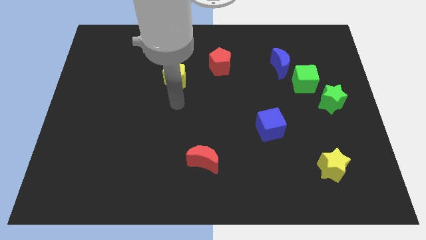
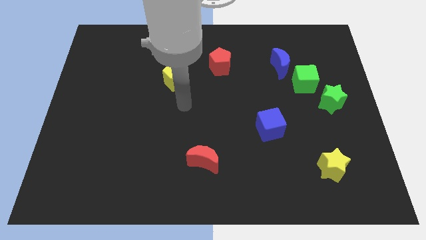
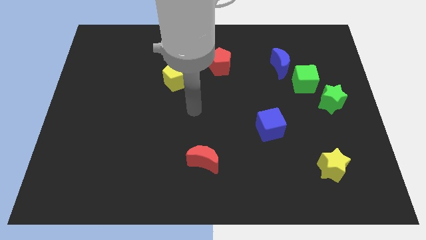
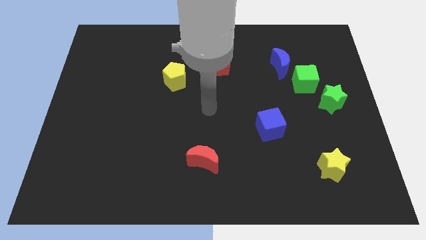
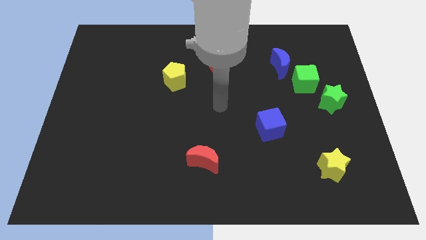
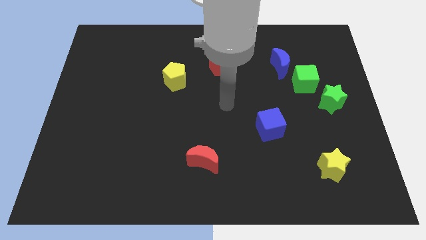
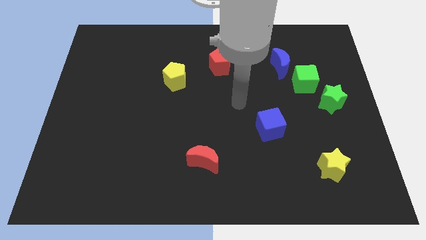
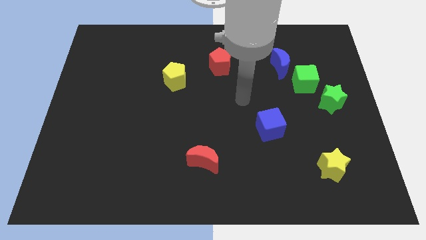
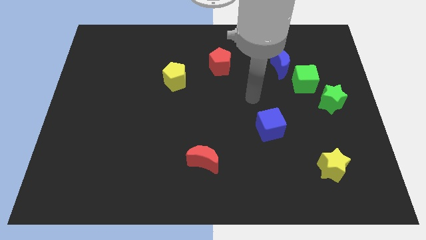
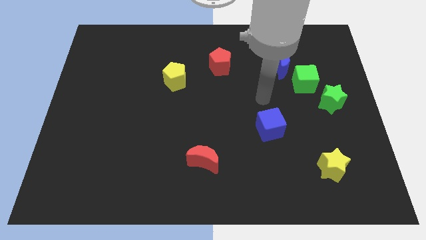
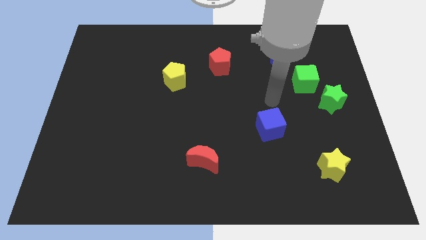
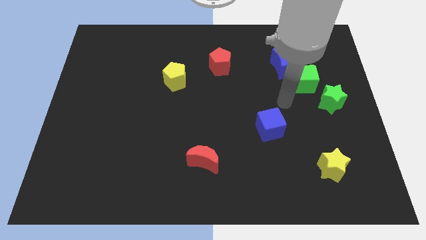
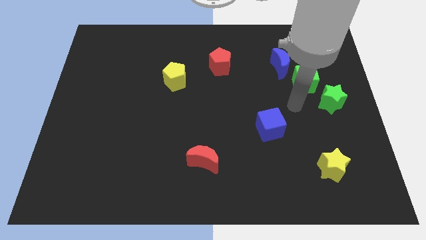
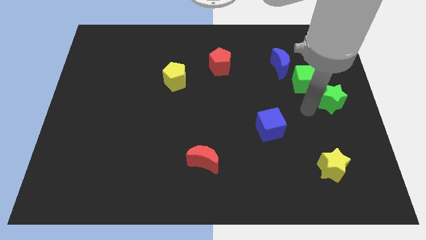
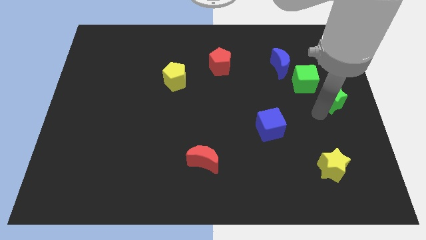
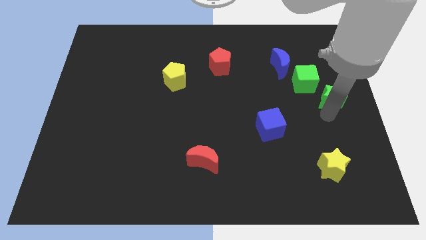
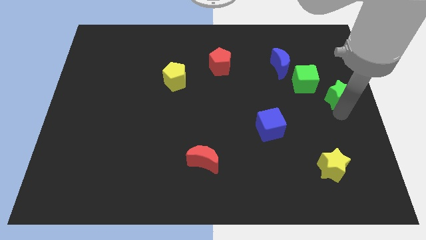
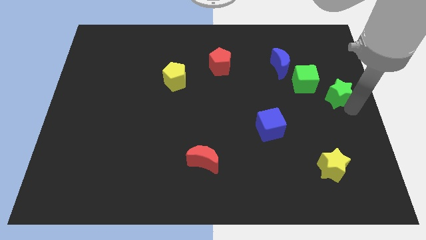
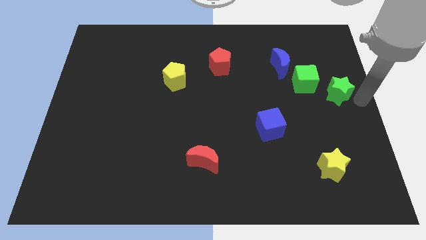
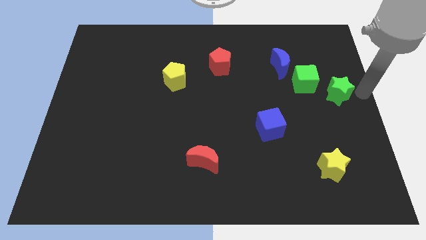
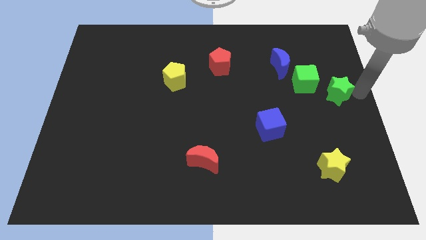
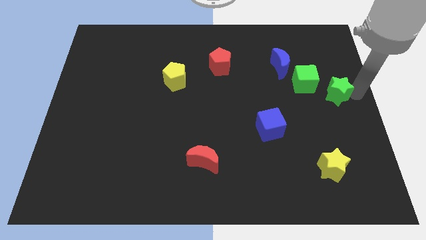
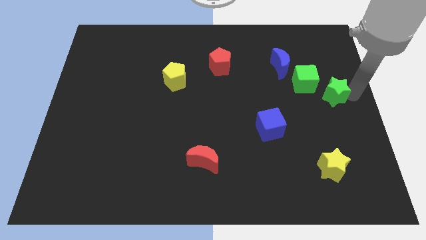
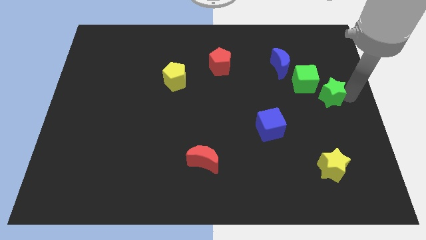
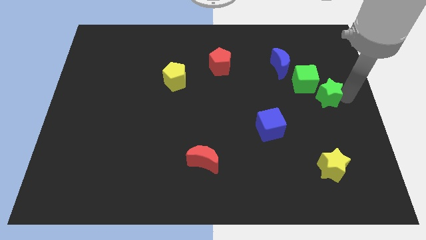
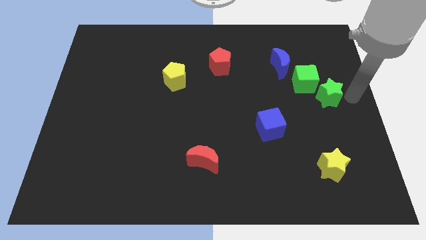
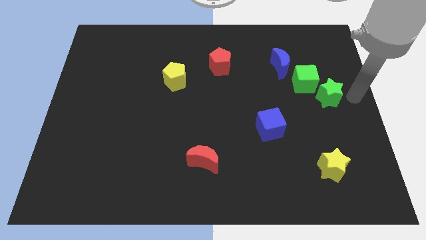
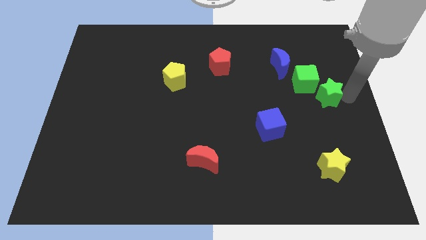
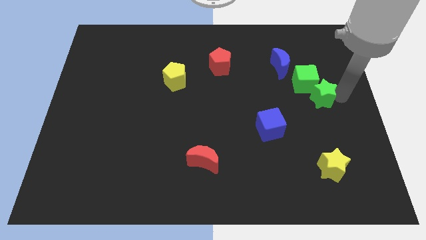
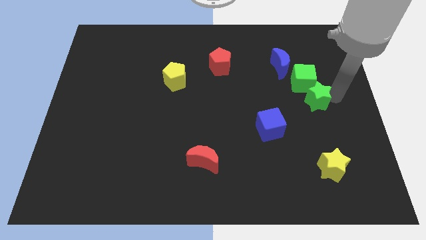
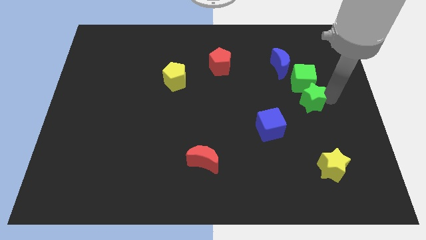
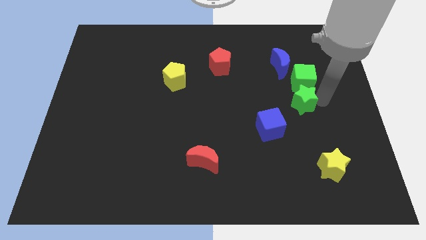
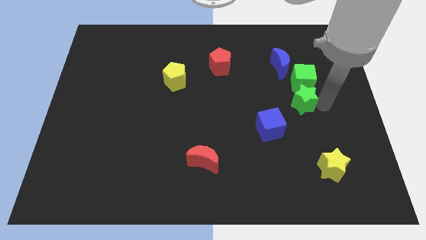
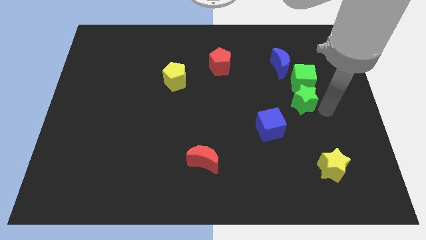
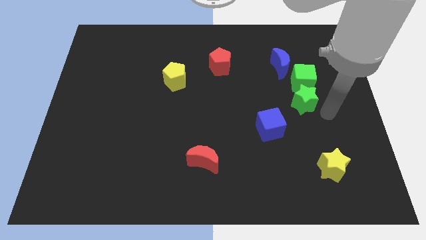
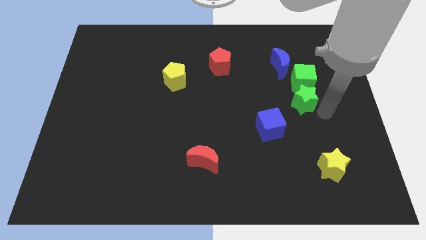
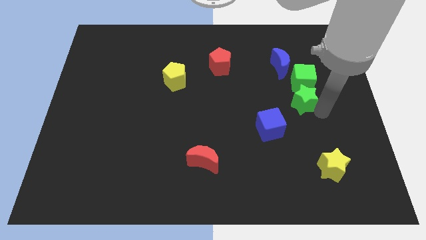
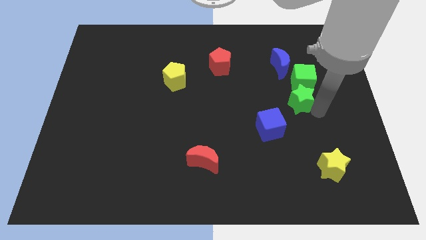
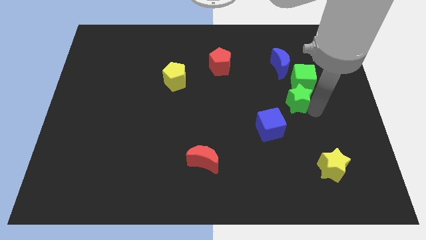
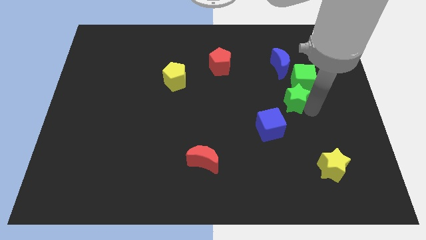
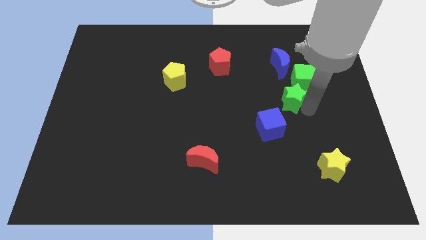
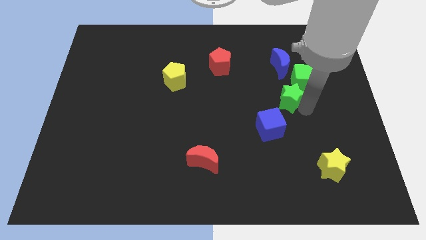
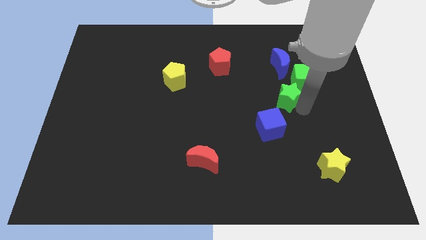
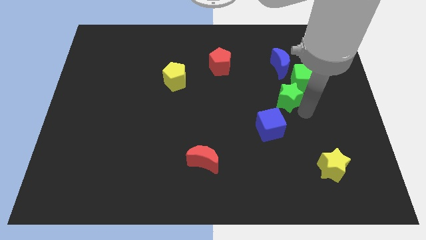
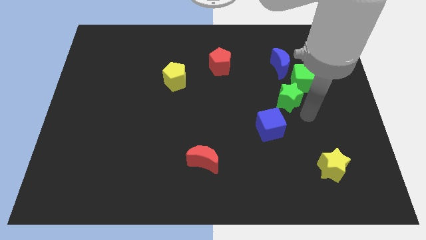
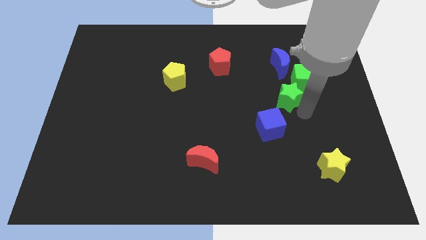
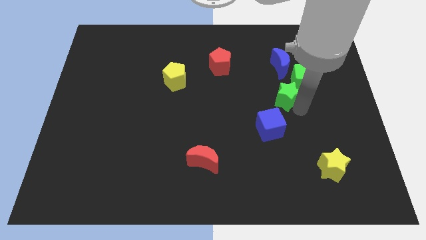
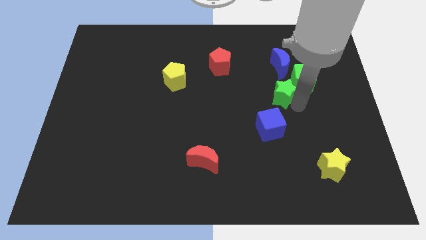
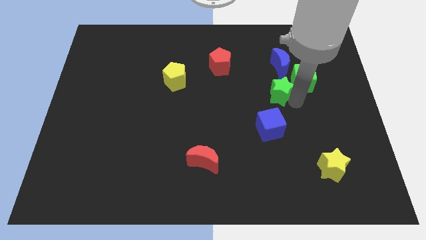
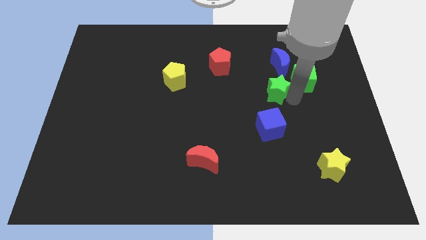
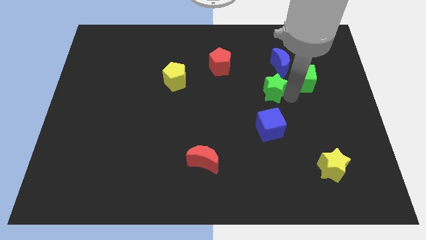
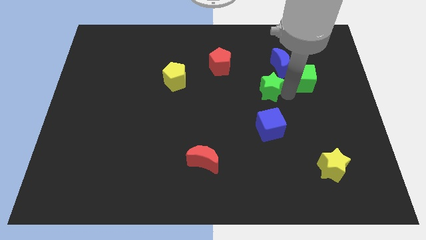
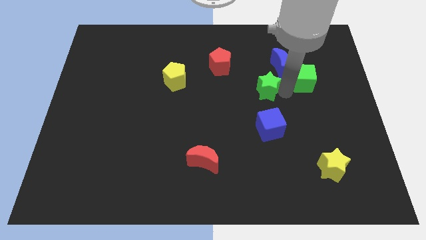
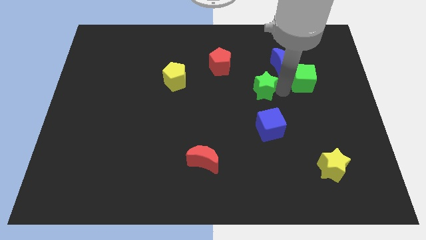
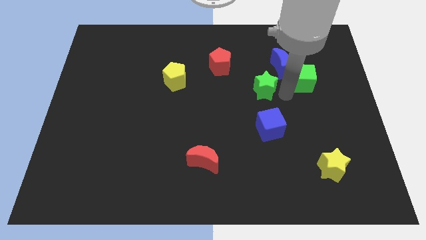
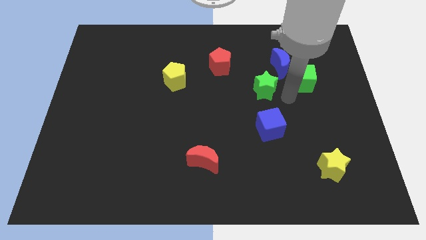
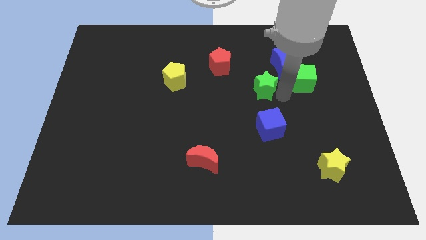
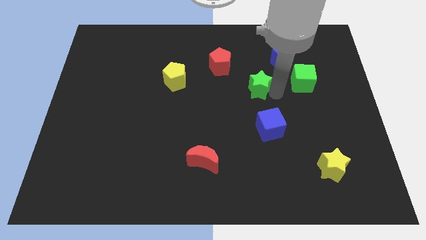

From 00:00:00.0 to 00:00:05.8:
move the green star to the bottom right of the red pentagon
